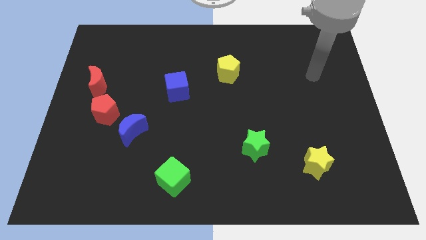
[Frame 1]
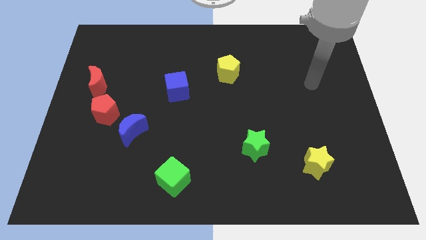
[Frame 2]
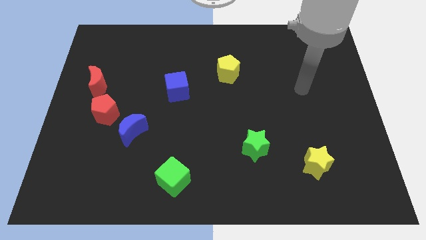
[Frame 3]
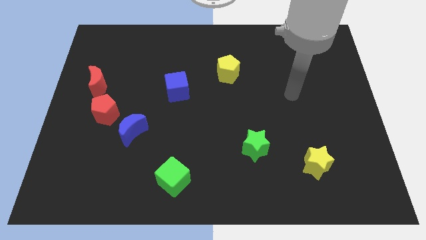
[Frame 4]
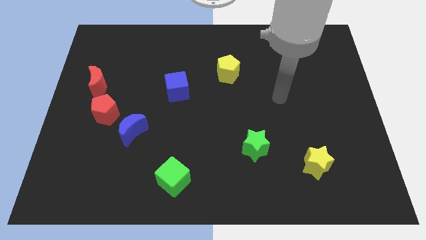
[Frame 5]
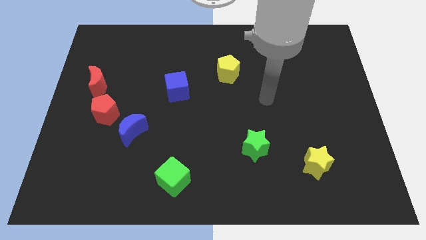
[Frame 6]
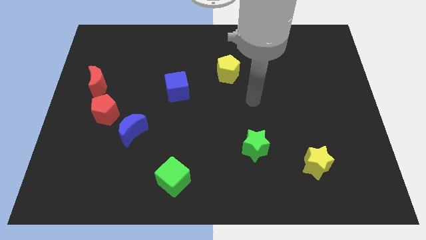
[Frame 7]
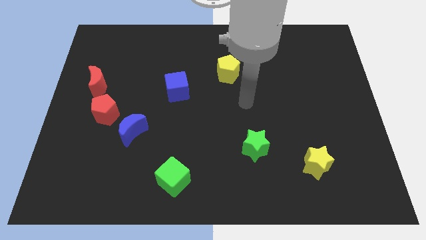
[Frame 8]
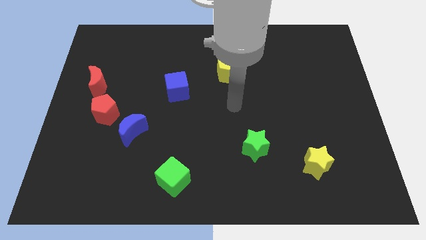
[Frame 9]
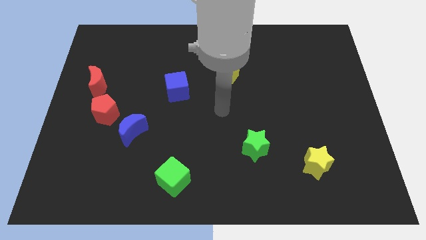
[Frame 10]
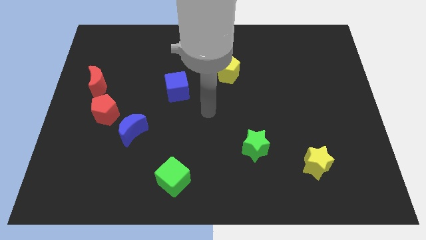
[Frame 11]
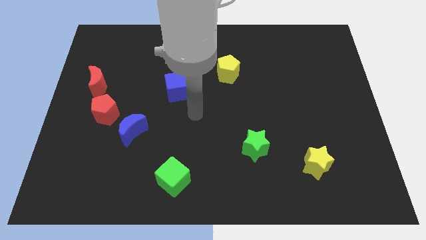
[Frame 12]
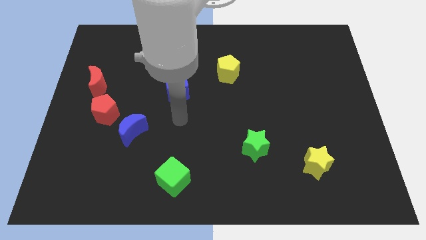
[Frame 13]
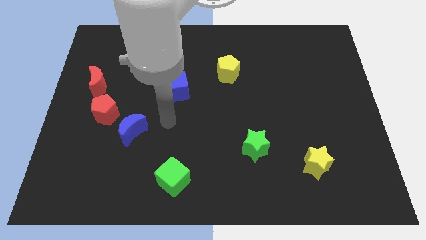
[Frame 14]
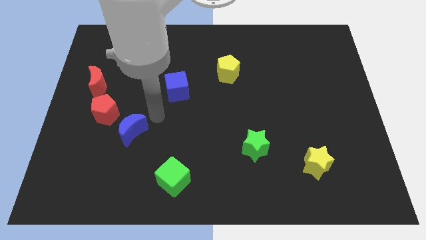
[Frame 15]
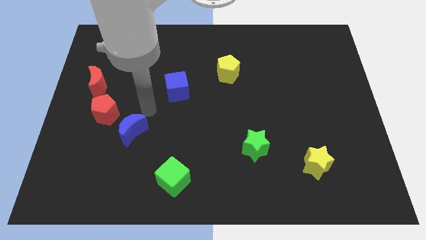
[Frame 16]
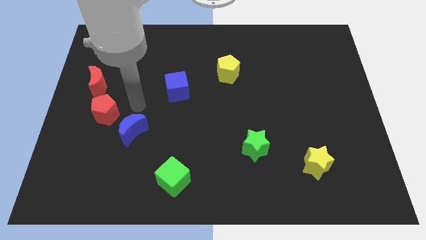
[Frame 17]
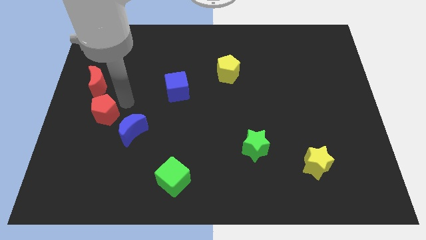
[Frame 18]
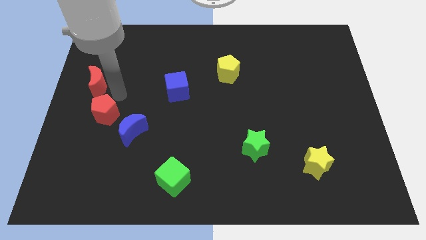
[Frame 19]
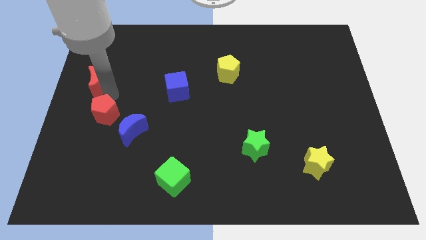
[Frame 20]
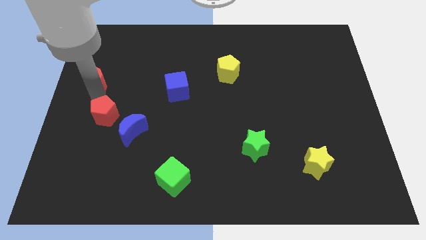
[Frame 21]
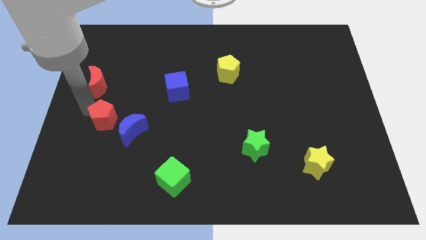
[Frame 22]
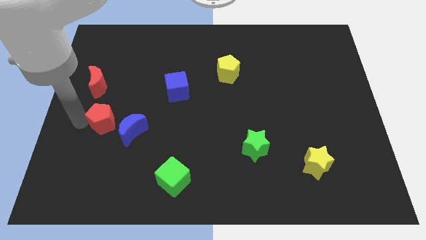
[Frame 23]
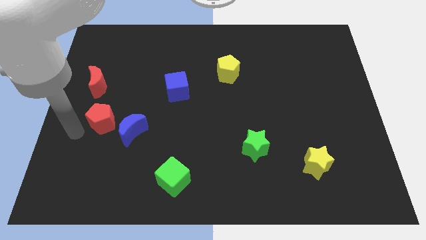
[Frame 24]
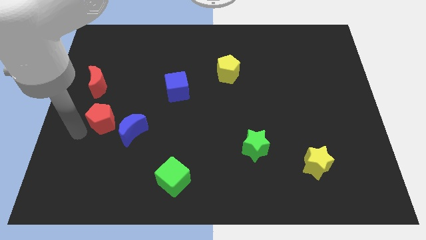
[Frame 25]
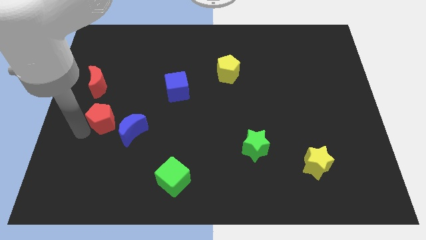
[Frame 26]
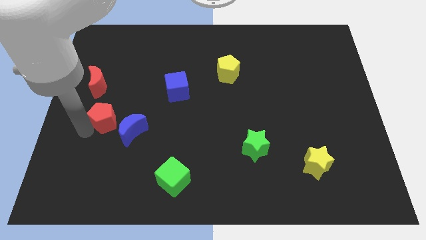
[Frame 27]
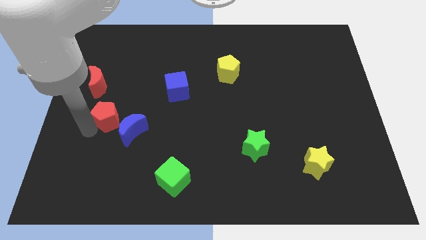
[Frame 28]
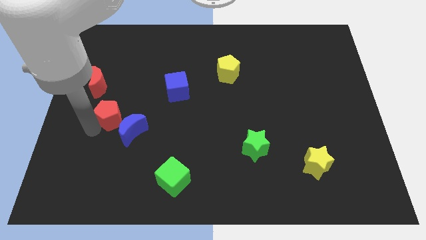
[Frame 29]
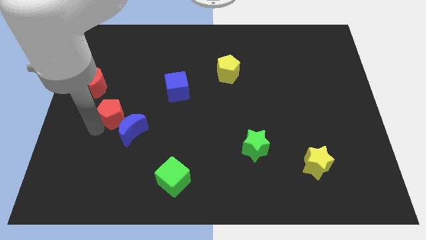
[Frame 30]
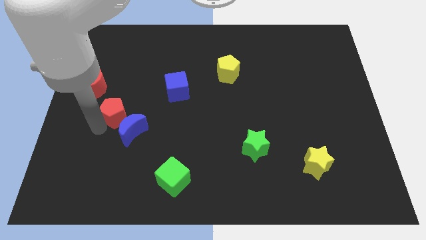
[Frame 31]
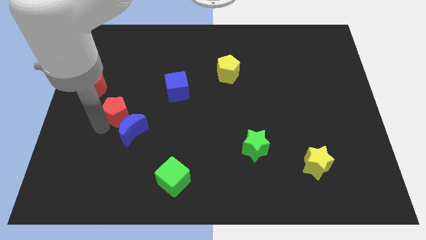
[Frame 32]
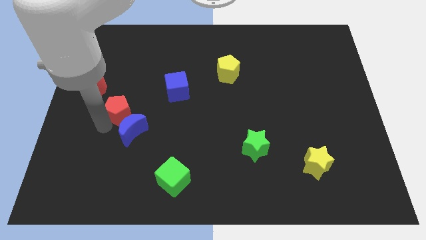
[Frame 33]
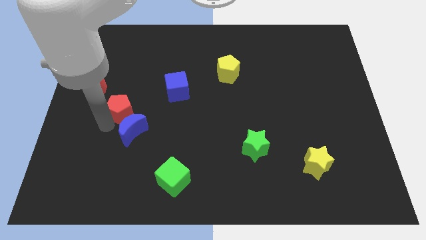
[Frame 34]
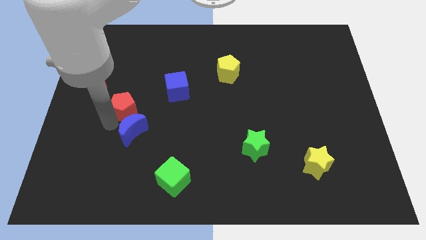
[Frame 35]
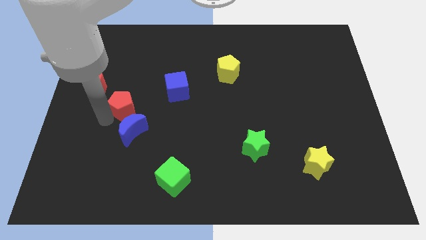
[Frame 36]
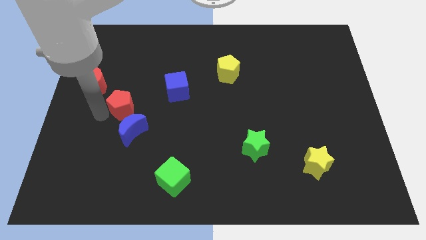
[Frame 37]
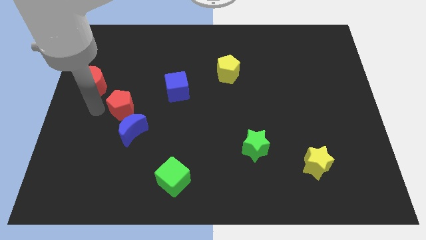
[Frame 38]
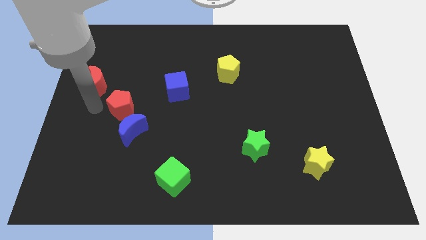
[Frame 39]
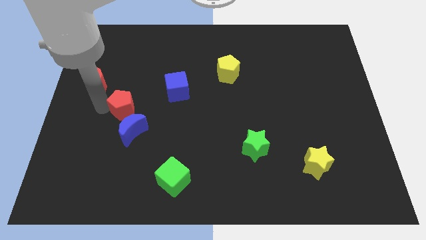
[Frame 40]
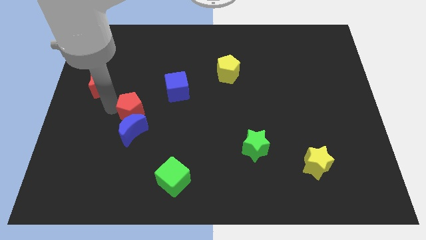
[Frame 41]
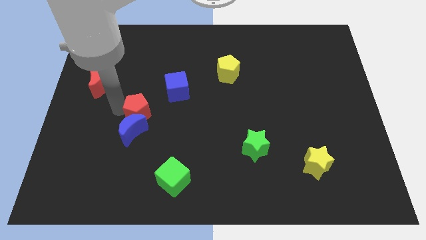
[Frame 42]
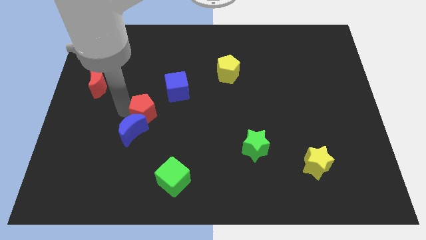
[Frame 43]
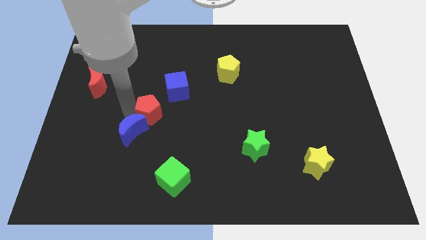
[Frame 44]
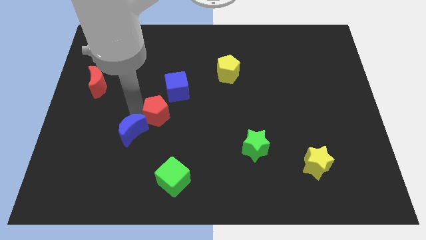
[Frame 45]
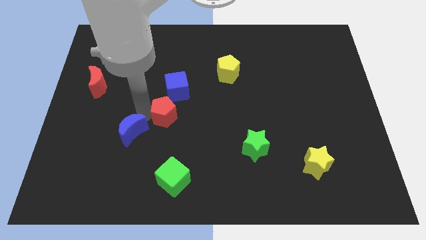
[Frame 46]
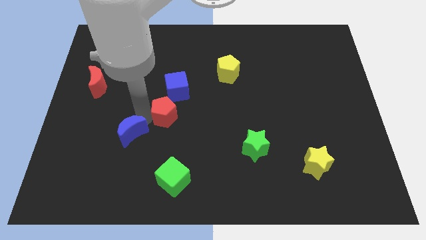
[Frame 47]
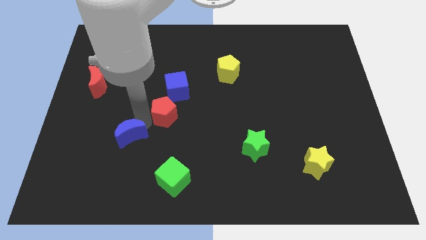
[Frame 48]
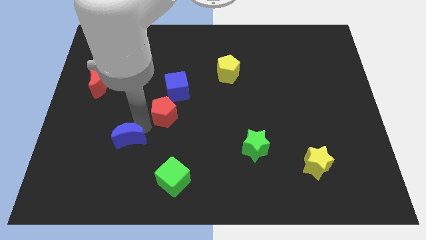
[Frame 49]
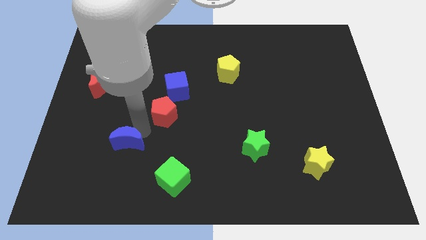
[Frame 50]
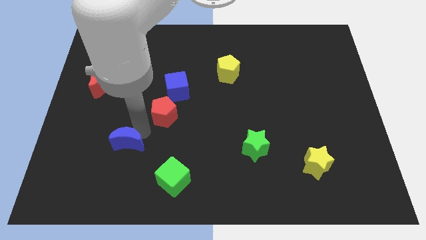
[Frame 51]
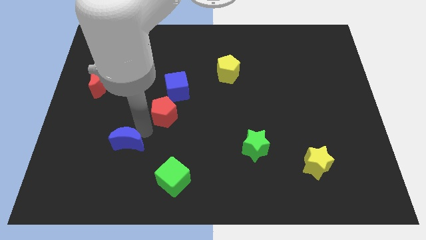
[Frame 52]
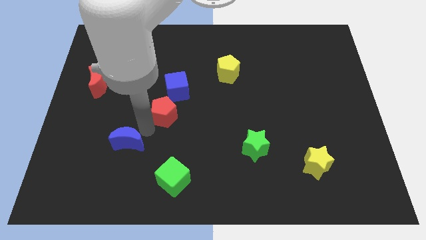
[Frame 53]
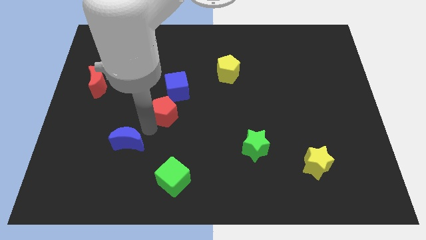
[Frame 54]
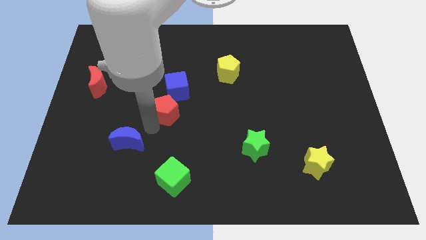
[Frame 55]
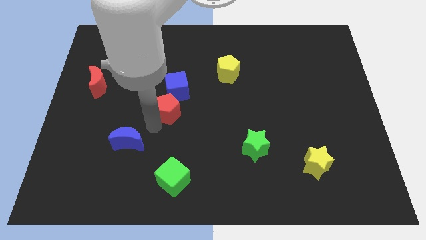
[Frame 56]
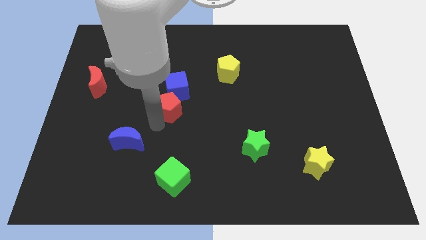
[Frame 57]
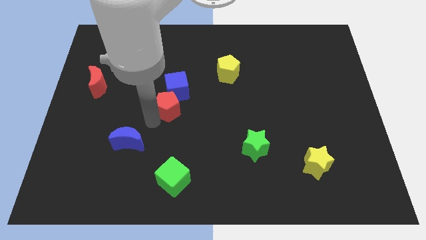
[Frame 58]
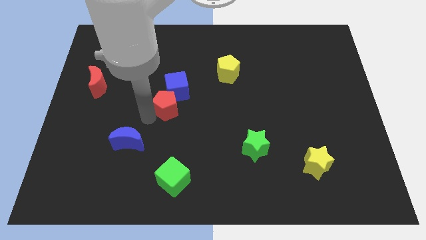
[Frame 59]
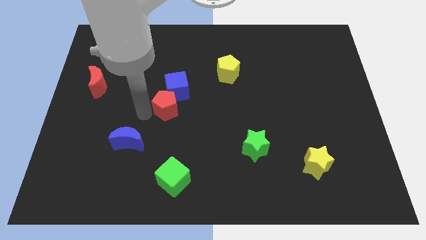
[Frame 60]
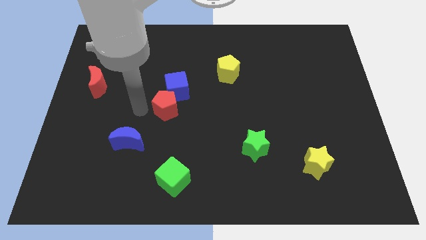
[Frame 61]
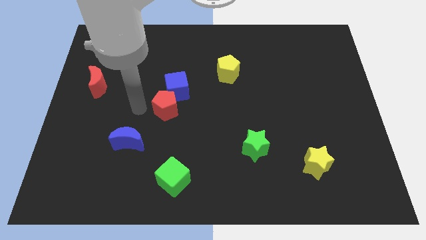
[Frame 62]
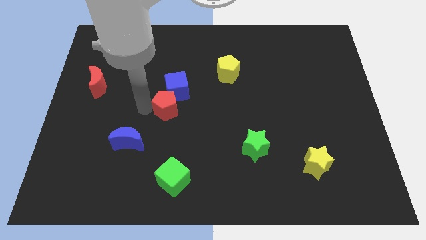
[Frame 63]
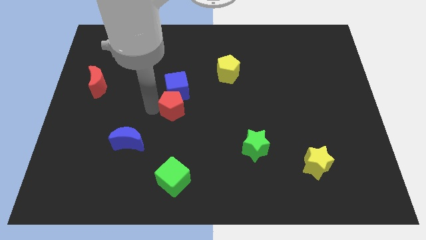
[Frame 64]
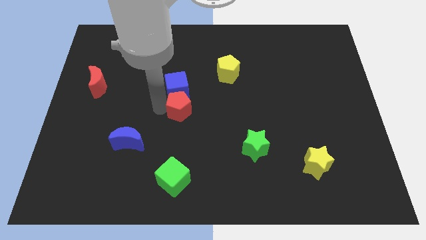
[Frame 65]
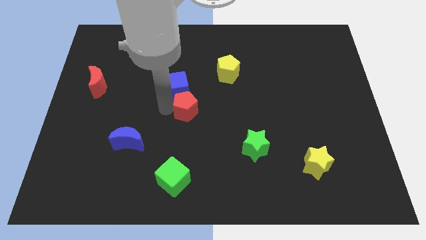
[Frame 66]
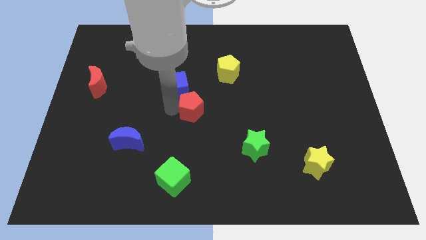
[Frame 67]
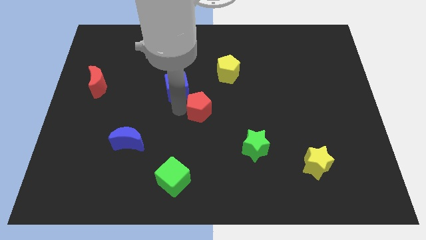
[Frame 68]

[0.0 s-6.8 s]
push the red pentagon right

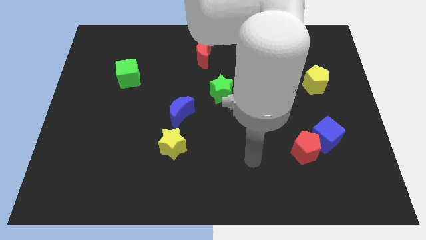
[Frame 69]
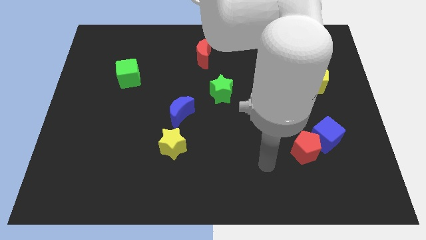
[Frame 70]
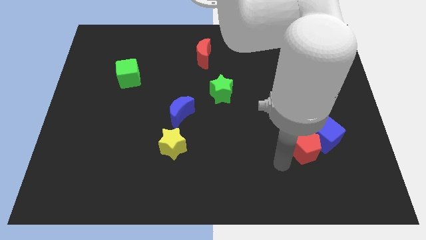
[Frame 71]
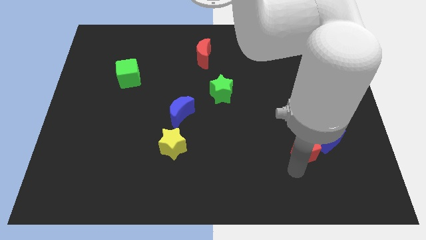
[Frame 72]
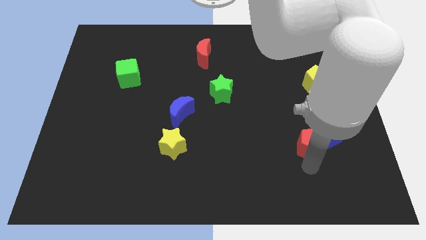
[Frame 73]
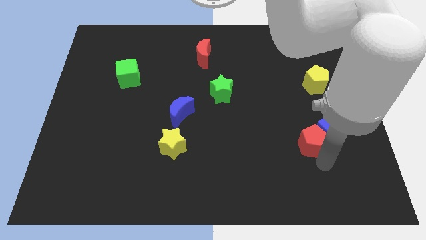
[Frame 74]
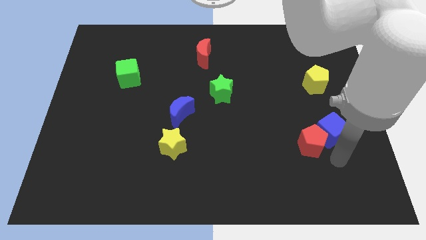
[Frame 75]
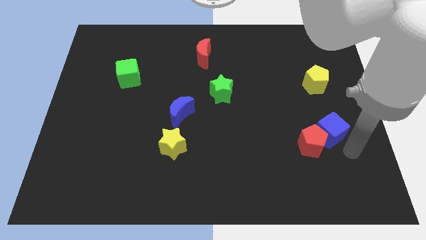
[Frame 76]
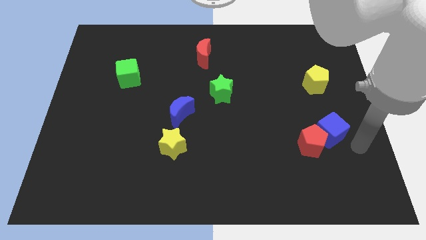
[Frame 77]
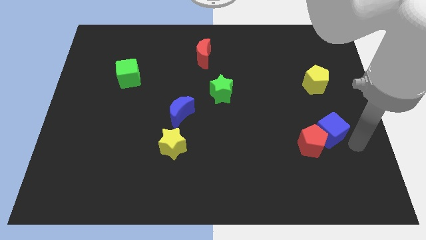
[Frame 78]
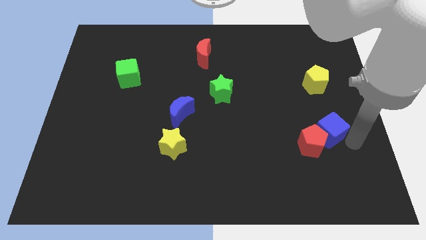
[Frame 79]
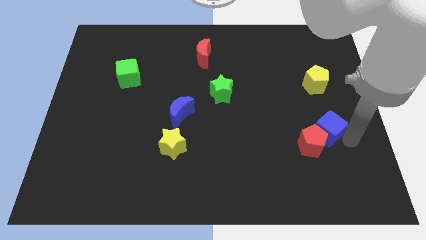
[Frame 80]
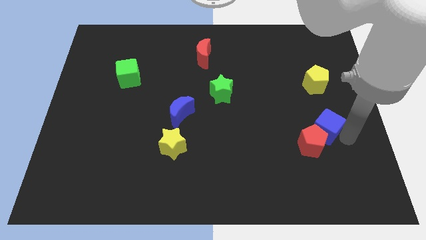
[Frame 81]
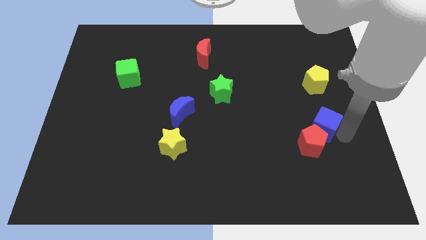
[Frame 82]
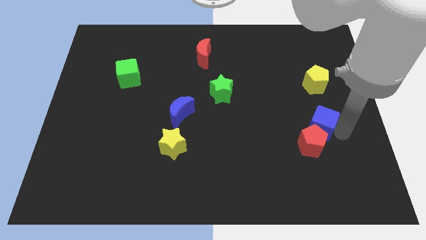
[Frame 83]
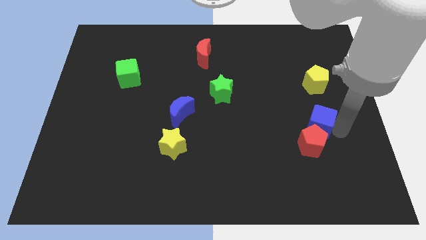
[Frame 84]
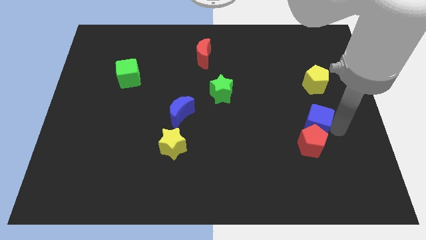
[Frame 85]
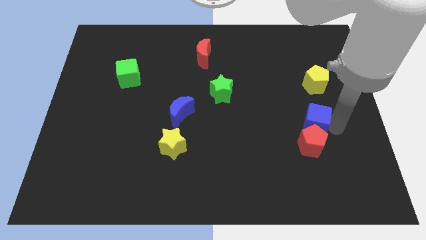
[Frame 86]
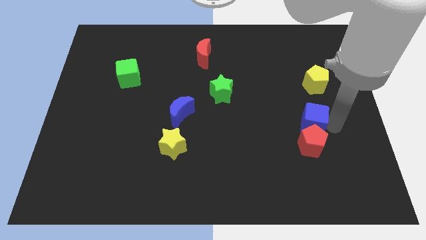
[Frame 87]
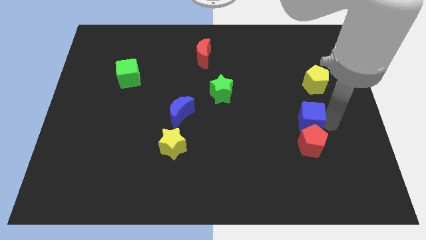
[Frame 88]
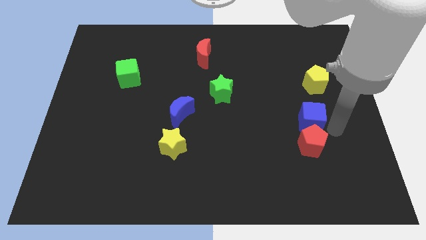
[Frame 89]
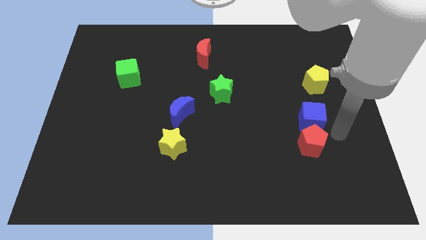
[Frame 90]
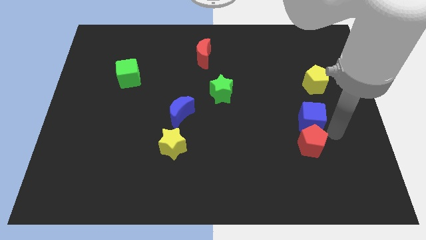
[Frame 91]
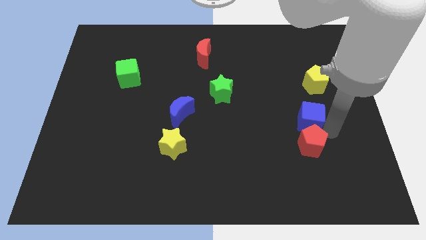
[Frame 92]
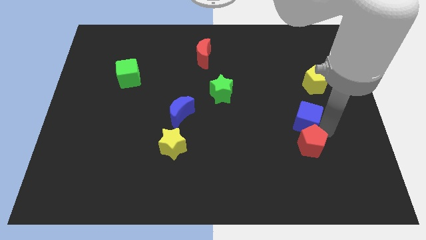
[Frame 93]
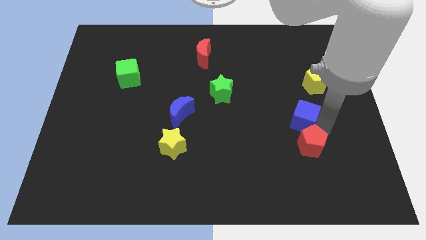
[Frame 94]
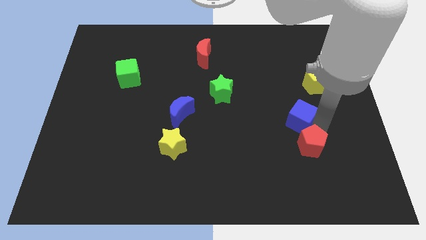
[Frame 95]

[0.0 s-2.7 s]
move the blue cube a little up and then to the left
